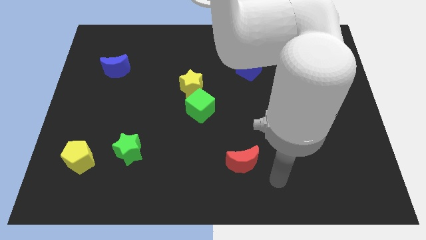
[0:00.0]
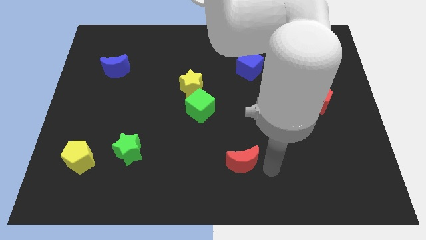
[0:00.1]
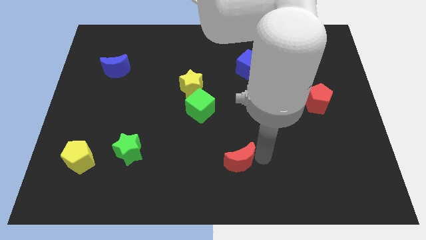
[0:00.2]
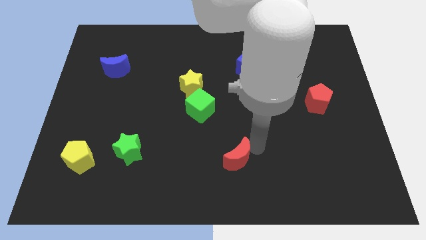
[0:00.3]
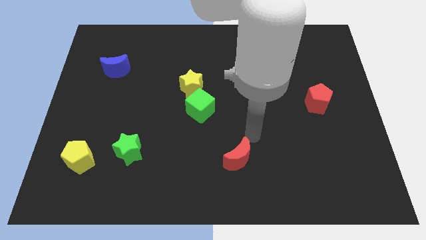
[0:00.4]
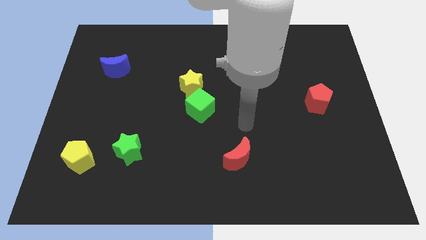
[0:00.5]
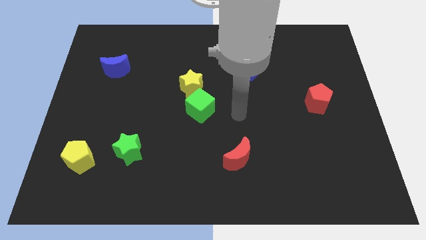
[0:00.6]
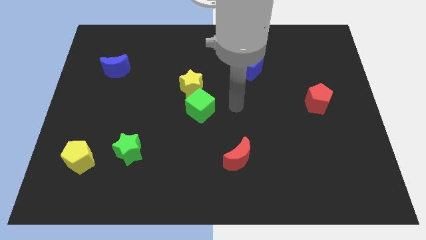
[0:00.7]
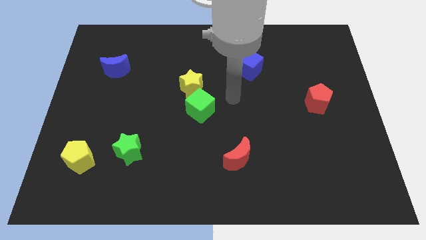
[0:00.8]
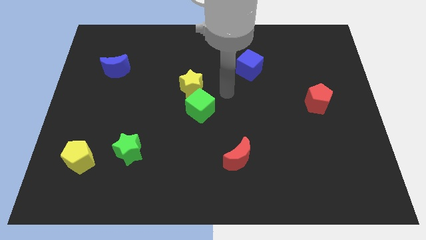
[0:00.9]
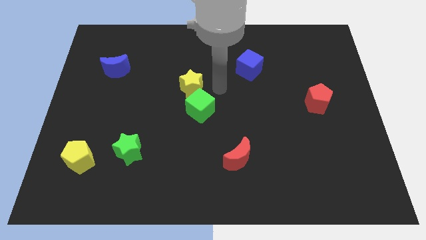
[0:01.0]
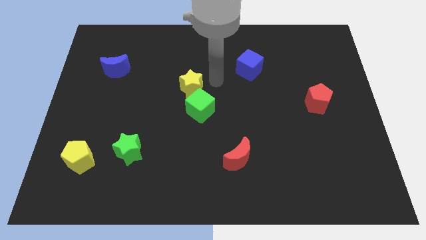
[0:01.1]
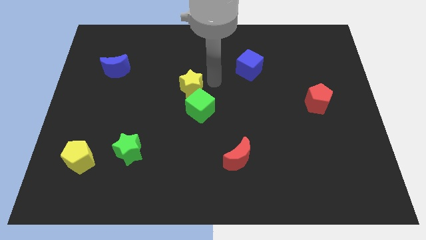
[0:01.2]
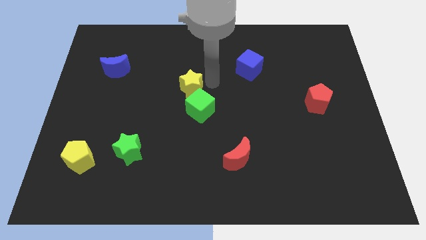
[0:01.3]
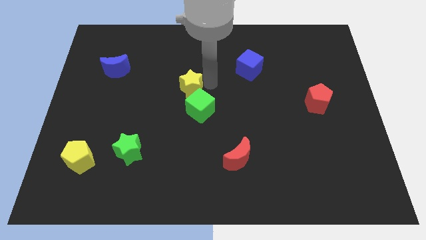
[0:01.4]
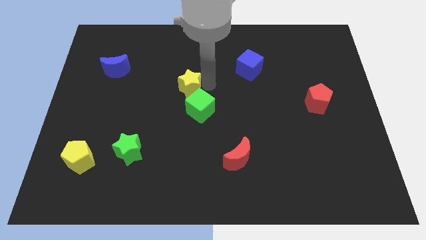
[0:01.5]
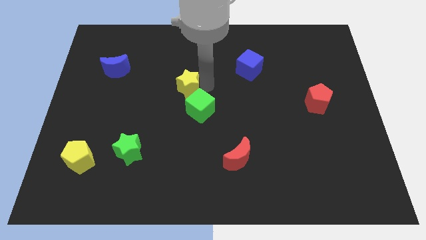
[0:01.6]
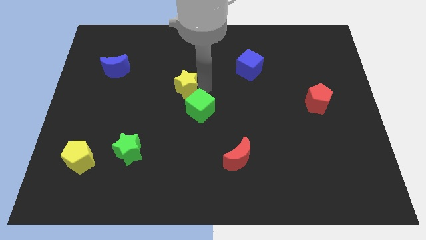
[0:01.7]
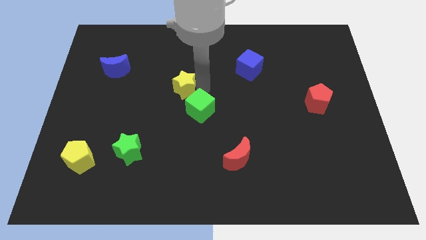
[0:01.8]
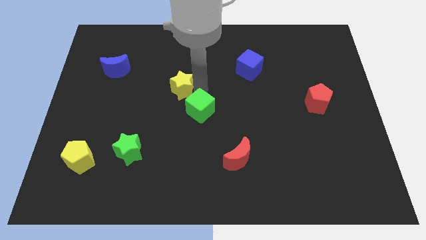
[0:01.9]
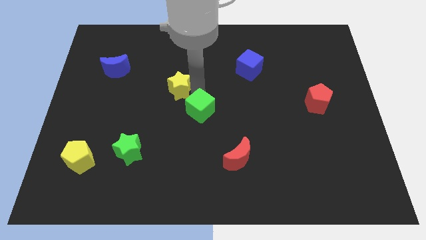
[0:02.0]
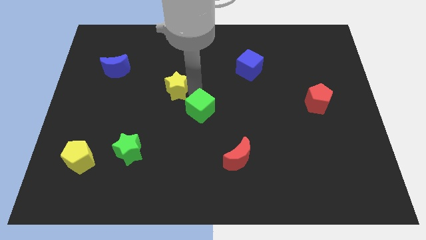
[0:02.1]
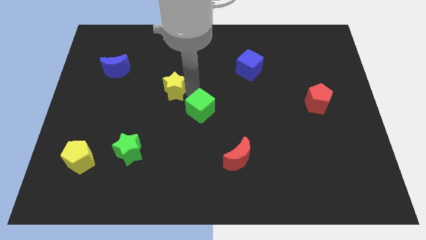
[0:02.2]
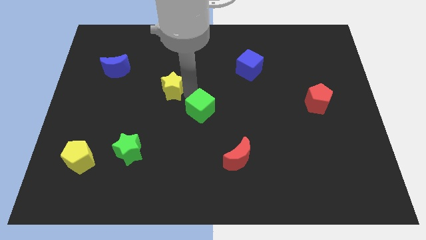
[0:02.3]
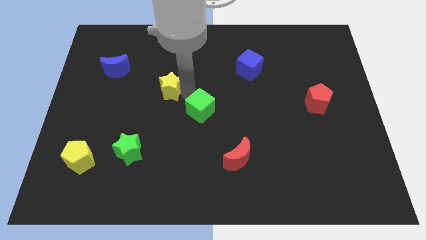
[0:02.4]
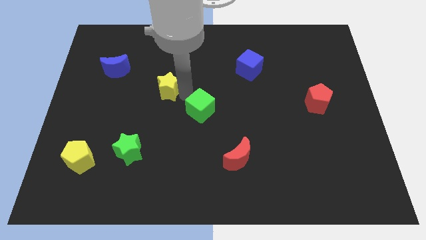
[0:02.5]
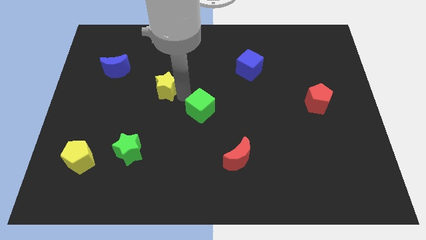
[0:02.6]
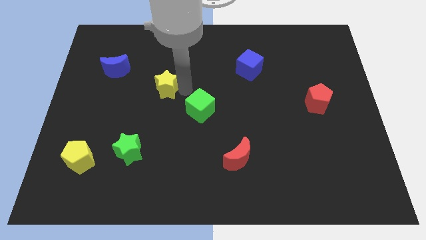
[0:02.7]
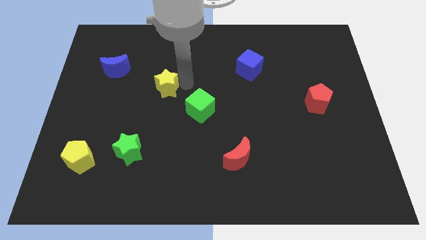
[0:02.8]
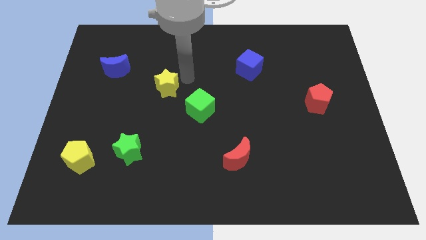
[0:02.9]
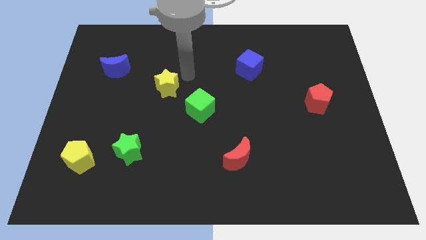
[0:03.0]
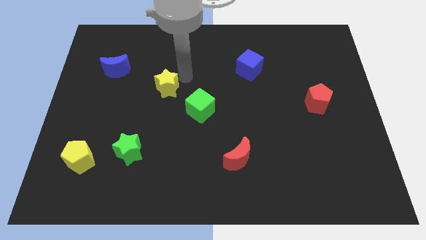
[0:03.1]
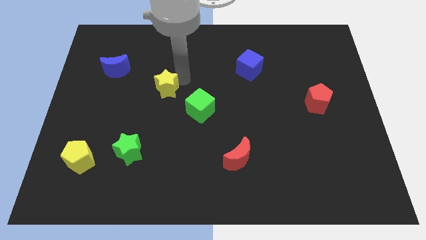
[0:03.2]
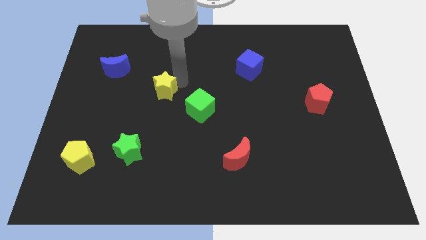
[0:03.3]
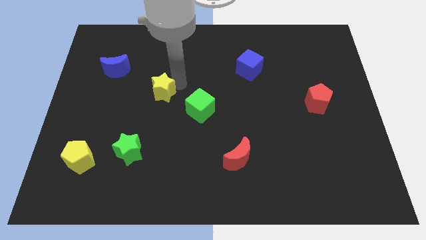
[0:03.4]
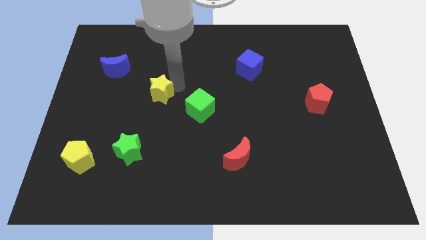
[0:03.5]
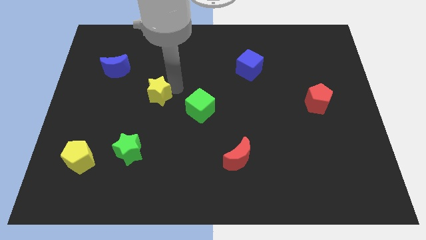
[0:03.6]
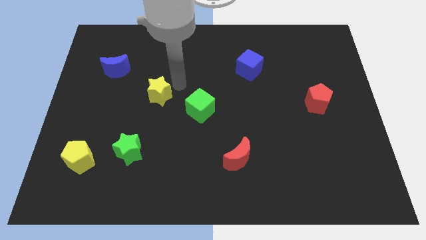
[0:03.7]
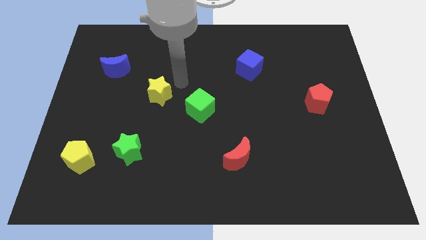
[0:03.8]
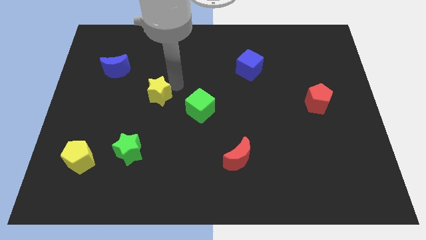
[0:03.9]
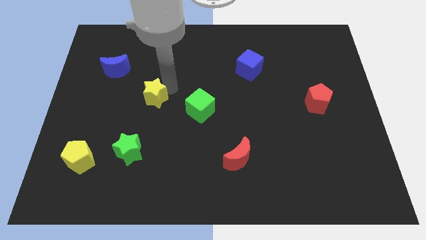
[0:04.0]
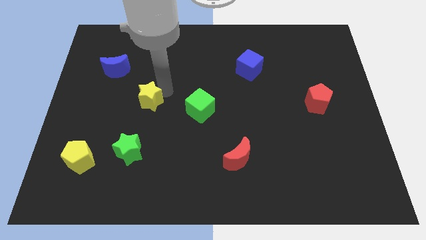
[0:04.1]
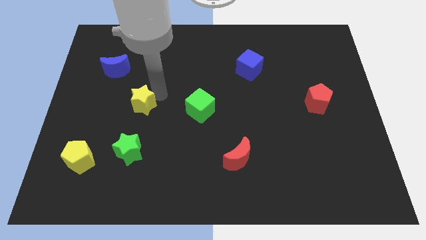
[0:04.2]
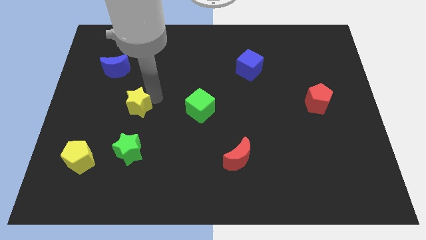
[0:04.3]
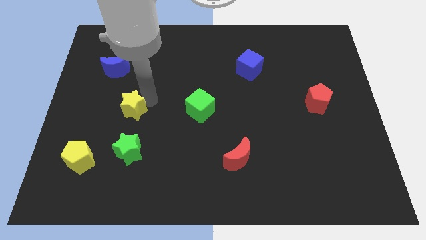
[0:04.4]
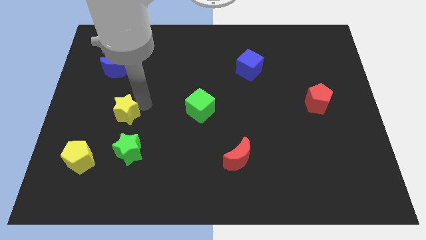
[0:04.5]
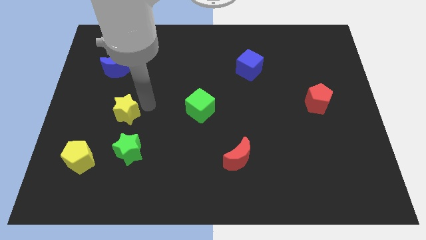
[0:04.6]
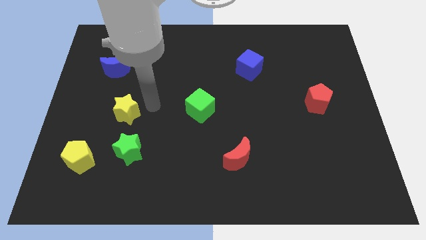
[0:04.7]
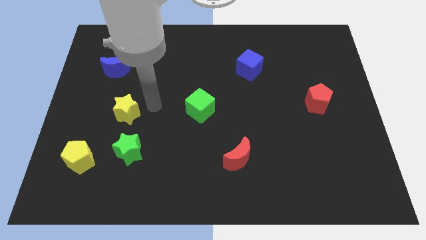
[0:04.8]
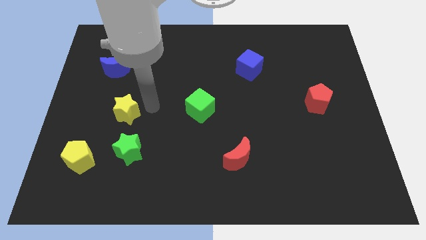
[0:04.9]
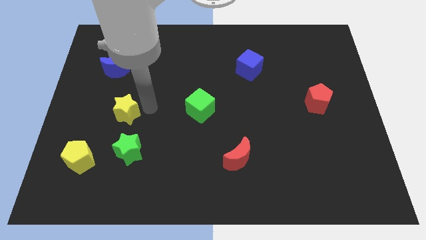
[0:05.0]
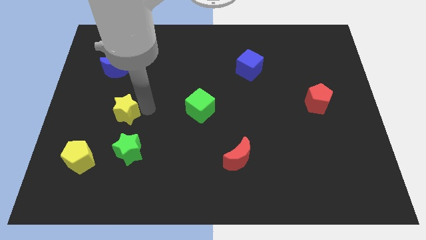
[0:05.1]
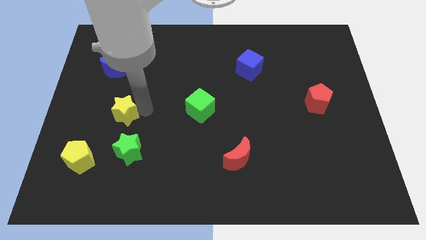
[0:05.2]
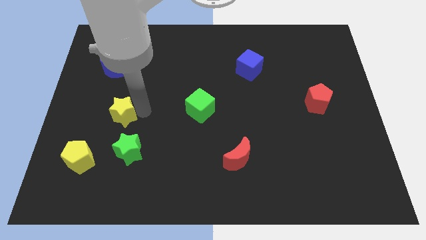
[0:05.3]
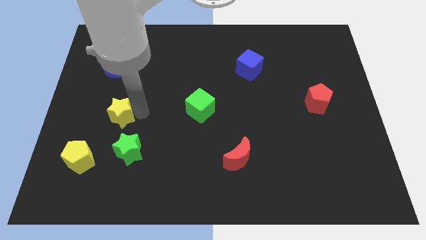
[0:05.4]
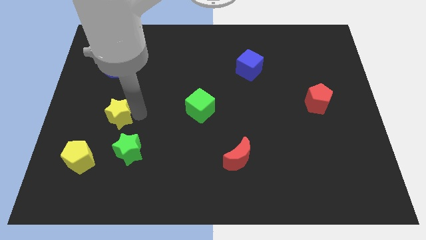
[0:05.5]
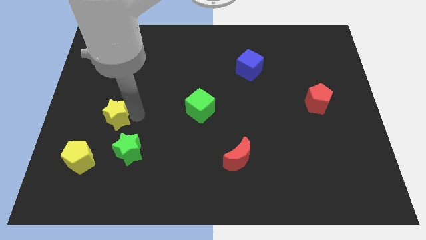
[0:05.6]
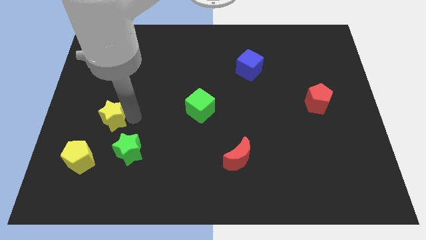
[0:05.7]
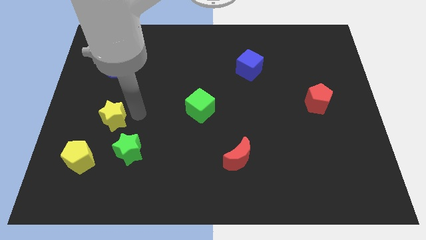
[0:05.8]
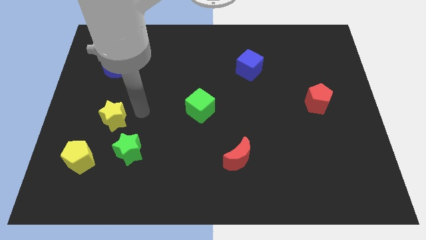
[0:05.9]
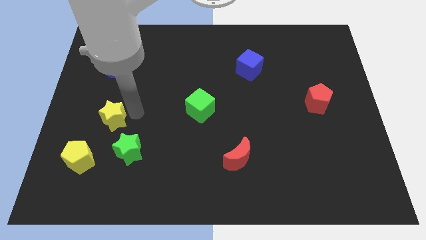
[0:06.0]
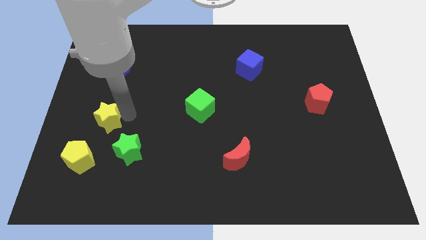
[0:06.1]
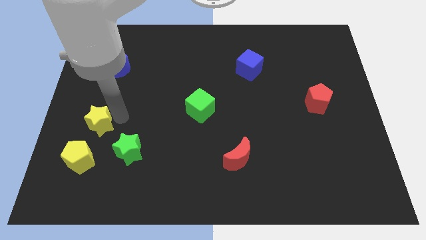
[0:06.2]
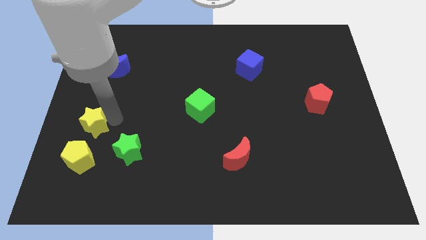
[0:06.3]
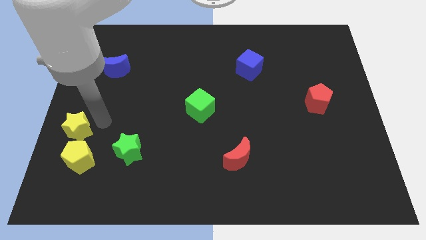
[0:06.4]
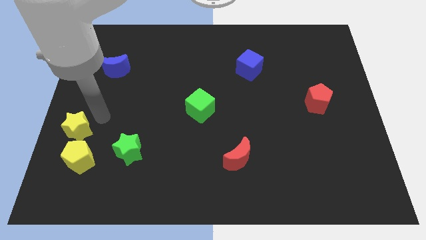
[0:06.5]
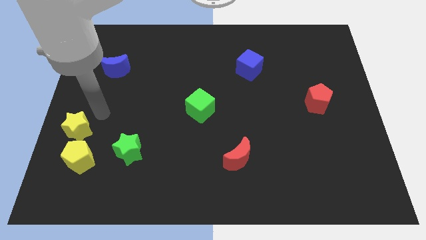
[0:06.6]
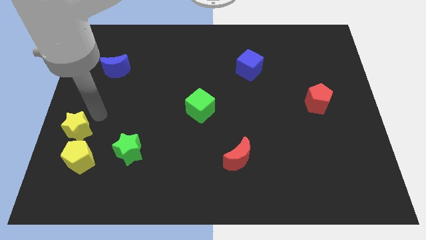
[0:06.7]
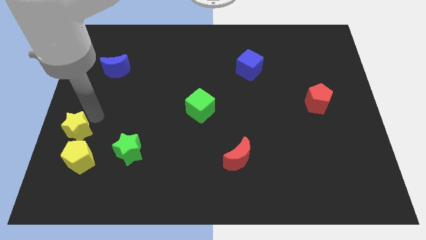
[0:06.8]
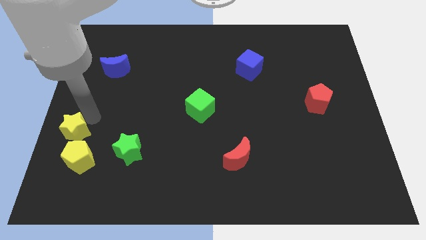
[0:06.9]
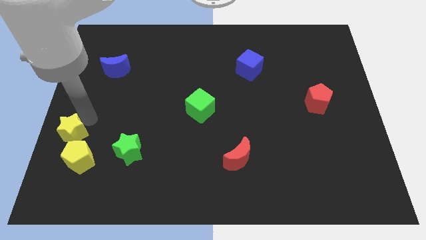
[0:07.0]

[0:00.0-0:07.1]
slide the yellow star to the left of the green star

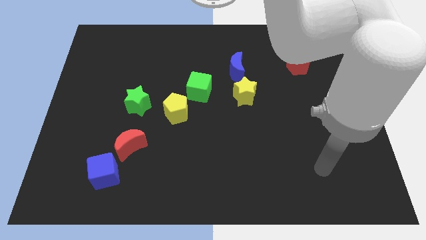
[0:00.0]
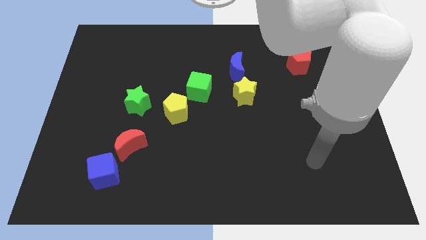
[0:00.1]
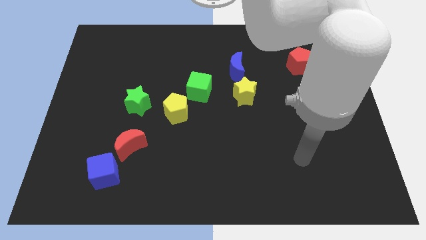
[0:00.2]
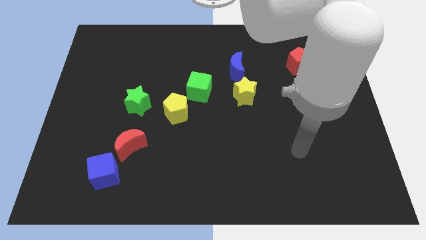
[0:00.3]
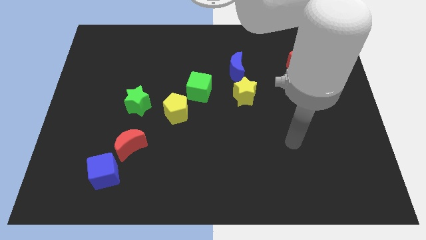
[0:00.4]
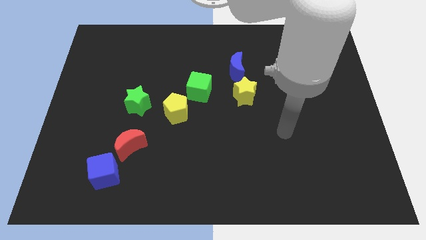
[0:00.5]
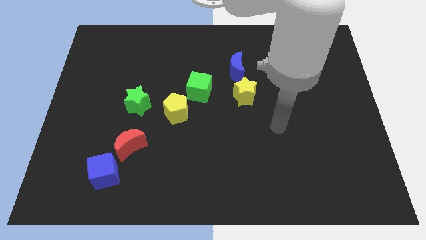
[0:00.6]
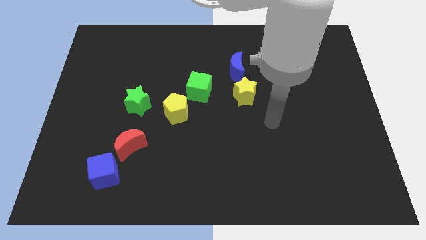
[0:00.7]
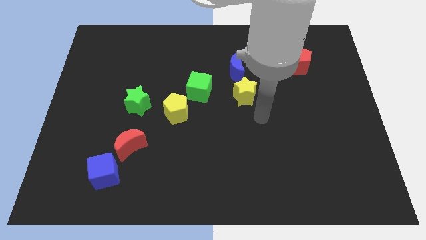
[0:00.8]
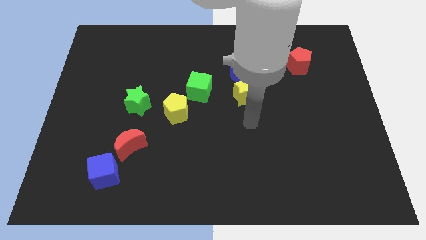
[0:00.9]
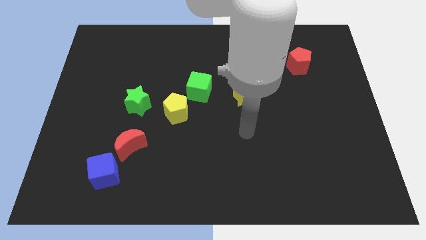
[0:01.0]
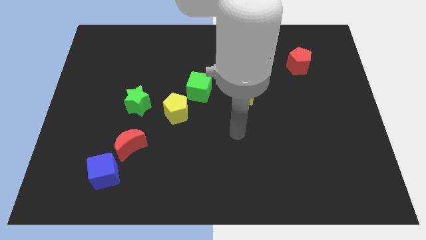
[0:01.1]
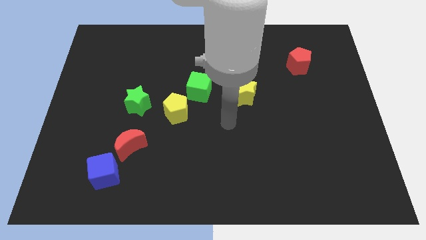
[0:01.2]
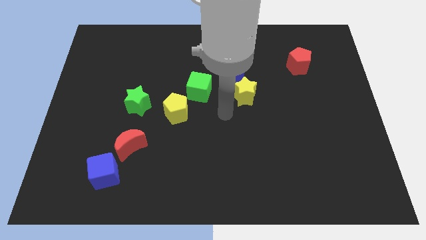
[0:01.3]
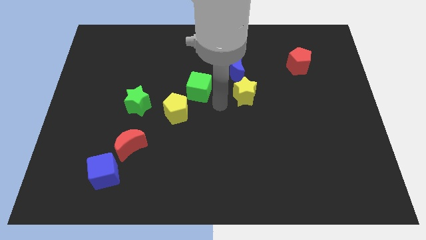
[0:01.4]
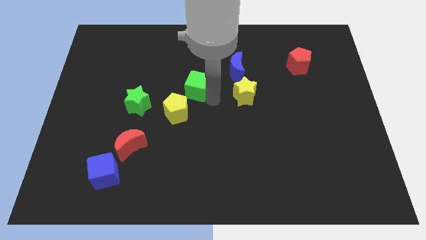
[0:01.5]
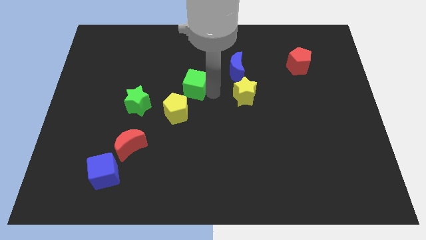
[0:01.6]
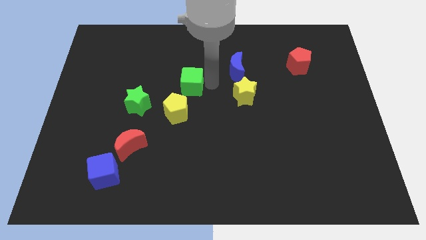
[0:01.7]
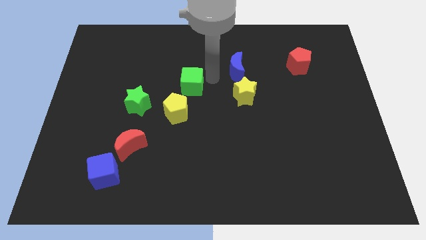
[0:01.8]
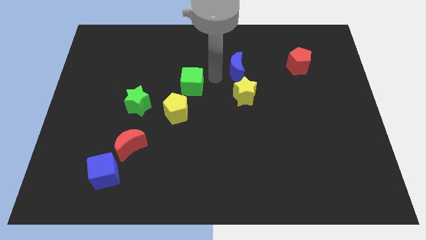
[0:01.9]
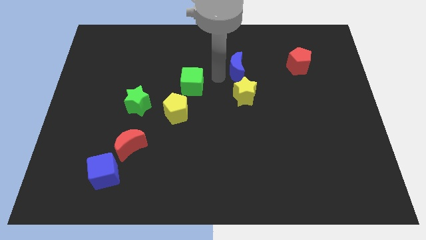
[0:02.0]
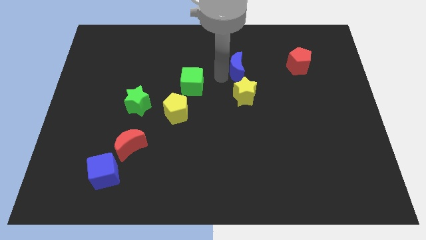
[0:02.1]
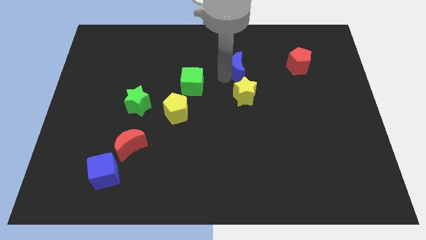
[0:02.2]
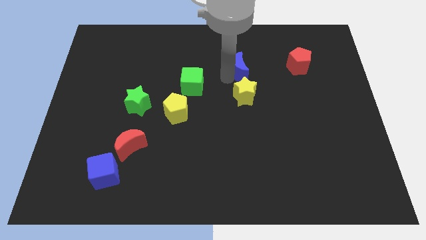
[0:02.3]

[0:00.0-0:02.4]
push the blue moon just left of the red pentagon
